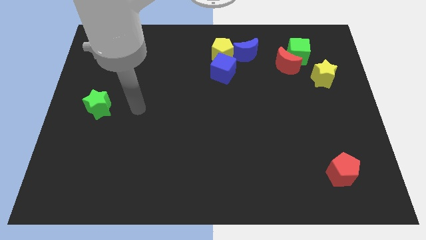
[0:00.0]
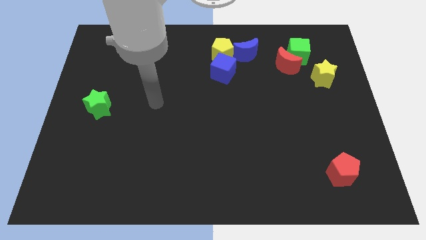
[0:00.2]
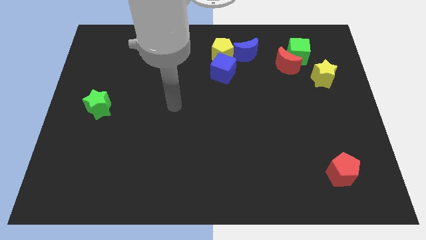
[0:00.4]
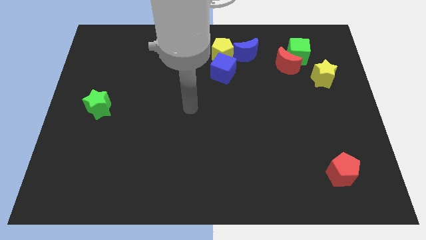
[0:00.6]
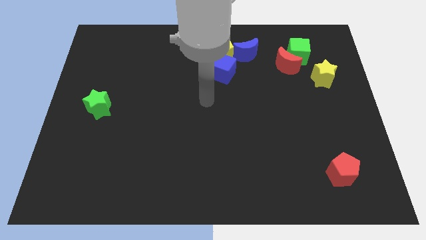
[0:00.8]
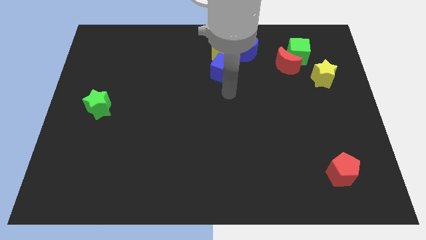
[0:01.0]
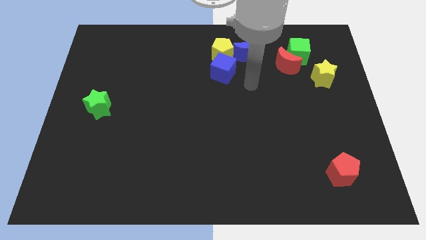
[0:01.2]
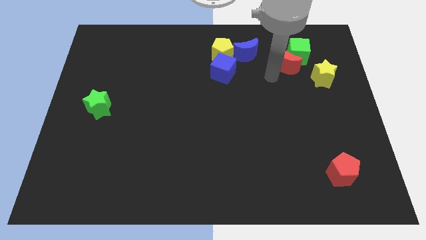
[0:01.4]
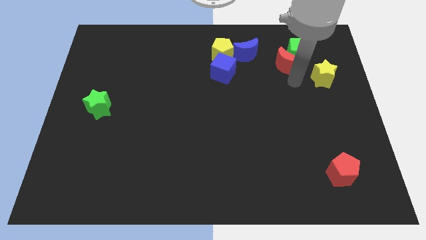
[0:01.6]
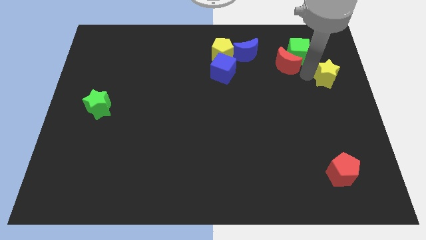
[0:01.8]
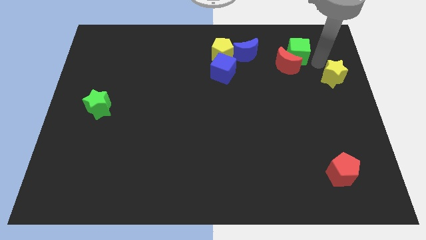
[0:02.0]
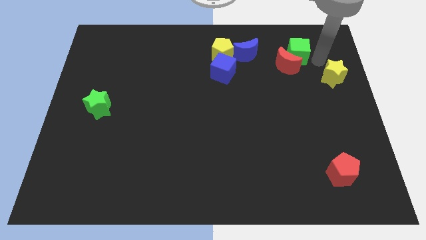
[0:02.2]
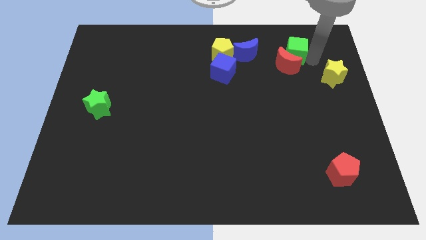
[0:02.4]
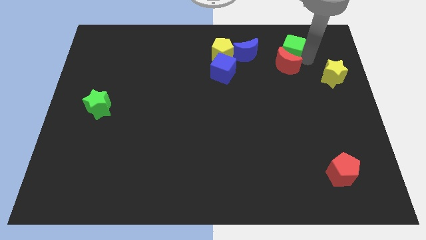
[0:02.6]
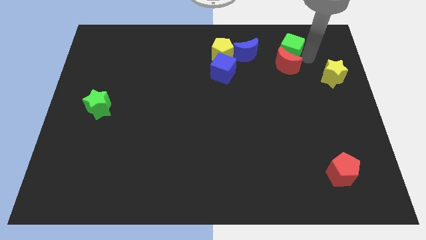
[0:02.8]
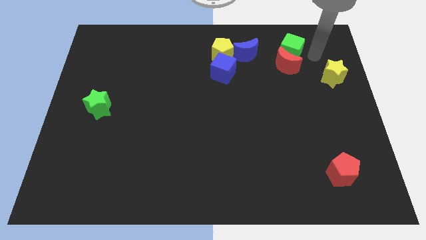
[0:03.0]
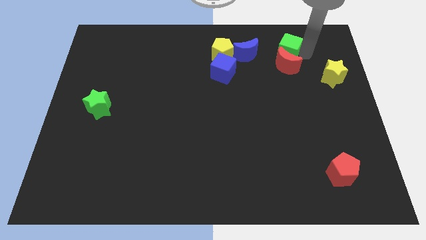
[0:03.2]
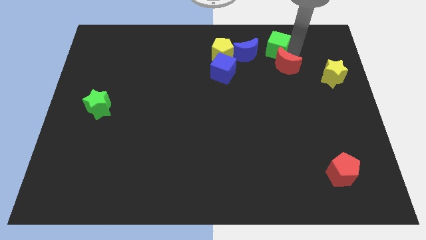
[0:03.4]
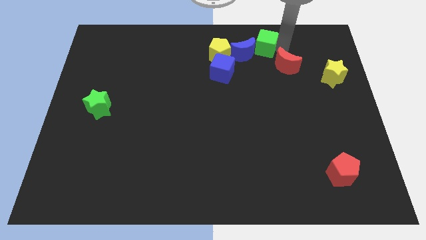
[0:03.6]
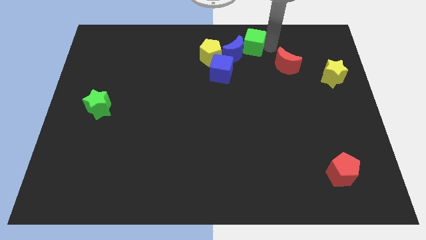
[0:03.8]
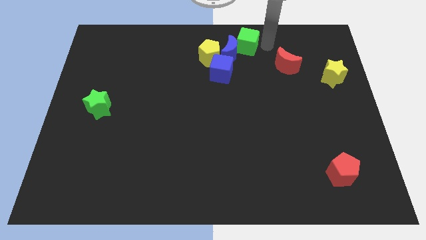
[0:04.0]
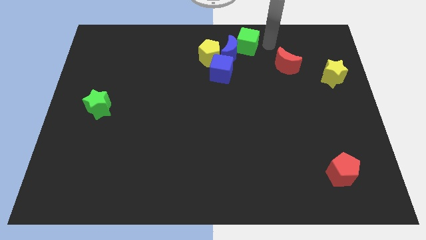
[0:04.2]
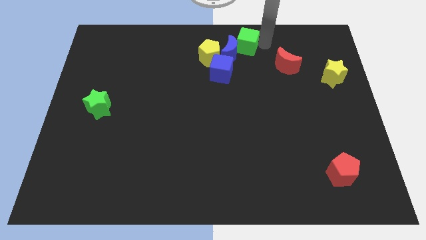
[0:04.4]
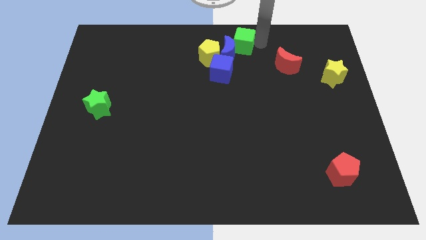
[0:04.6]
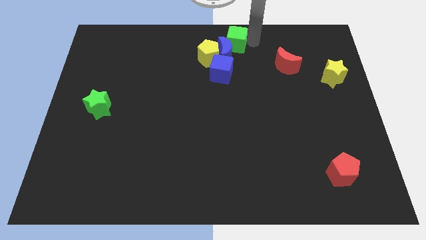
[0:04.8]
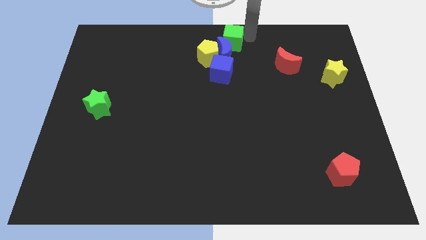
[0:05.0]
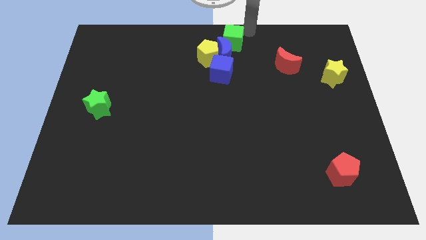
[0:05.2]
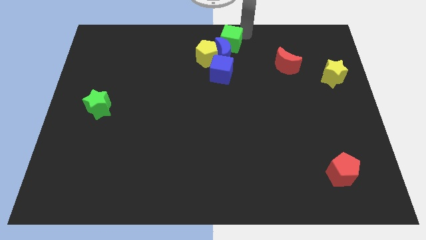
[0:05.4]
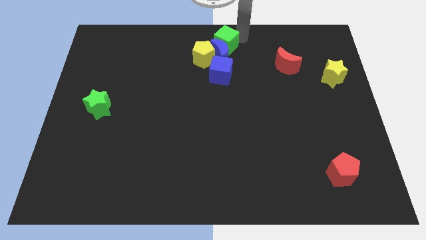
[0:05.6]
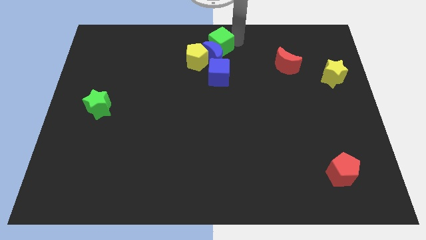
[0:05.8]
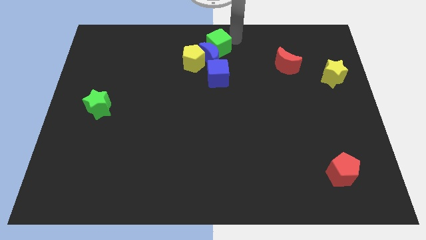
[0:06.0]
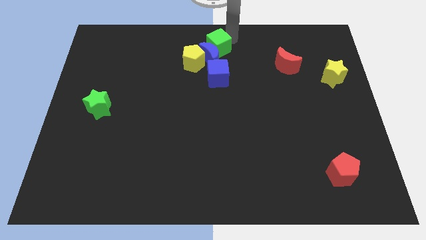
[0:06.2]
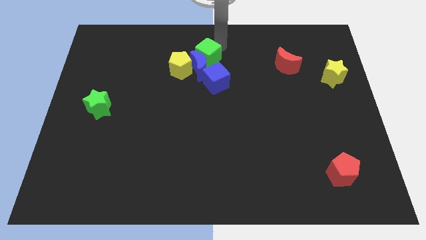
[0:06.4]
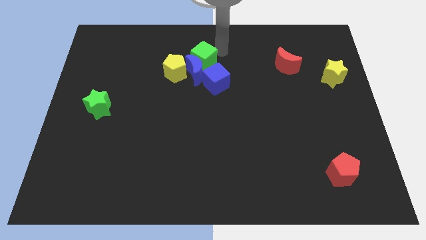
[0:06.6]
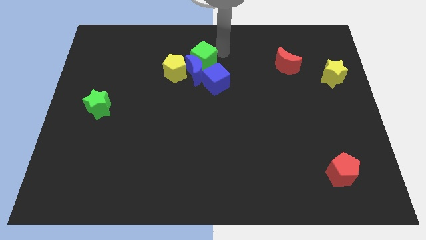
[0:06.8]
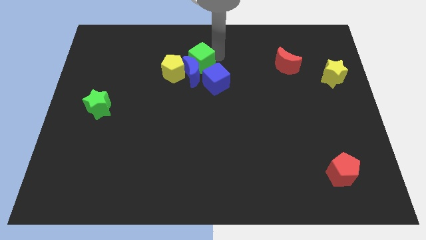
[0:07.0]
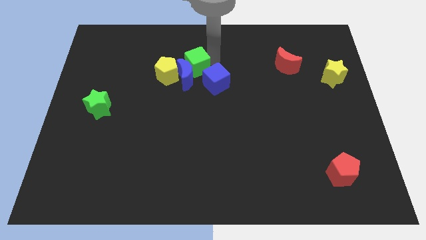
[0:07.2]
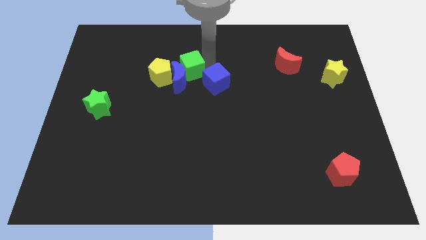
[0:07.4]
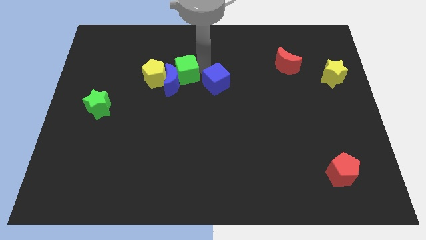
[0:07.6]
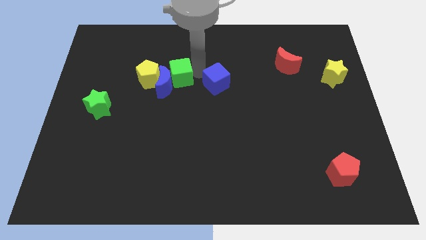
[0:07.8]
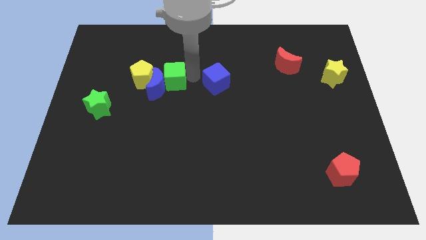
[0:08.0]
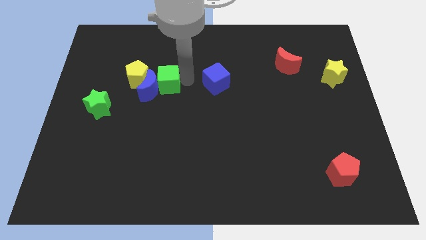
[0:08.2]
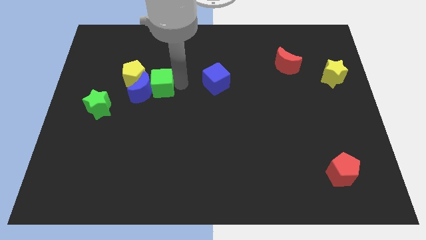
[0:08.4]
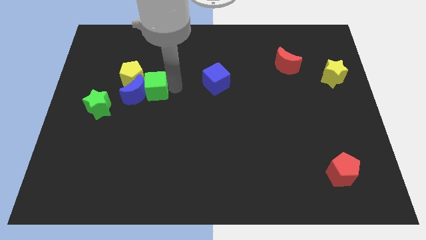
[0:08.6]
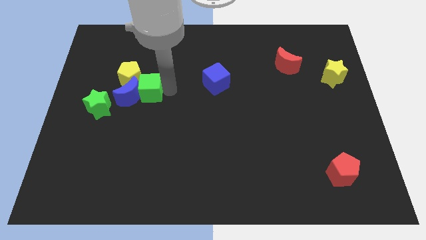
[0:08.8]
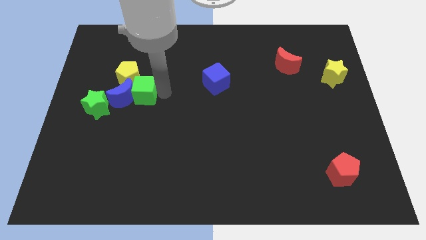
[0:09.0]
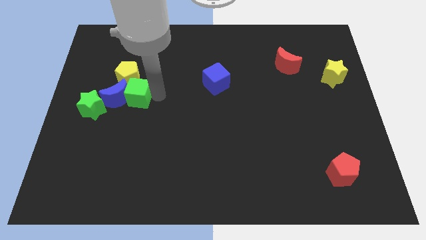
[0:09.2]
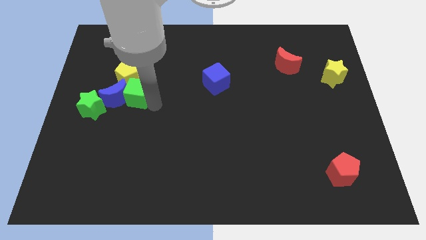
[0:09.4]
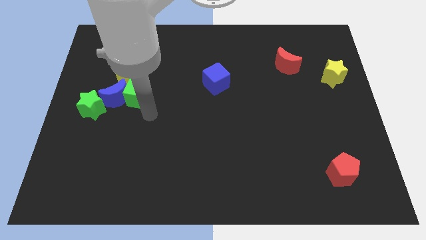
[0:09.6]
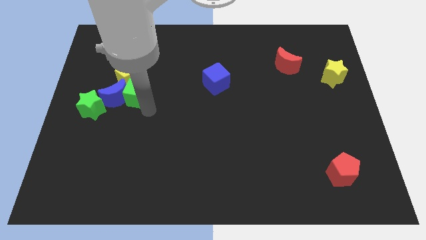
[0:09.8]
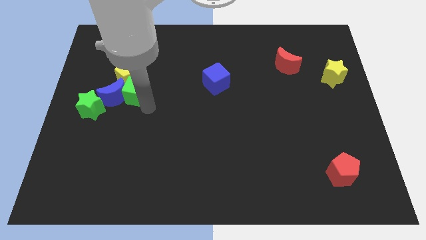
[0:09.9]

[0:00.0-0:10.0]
move the green cube close to the yellow pentagon

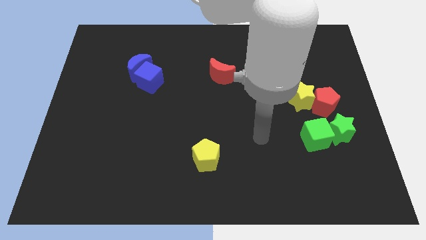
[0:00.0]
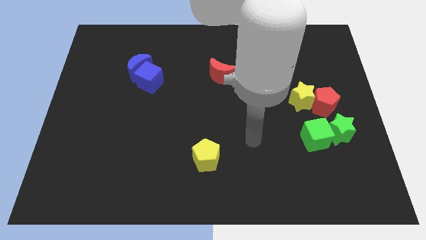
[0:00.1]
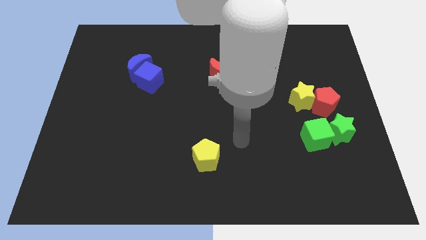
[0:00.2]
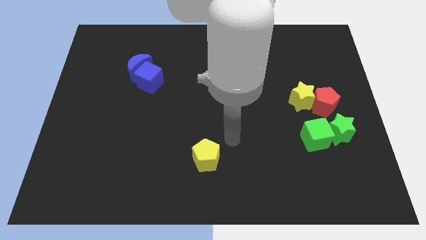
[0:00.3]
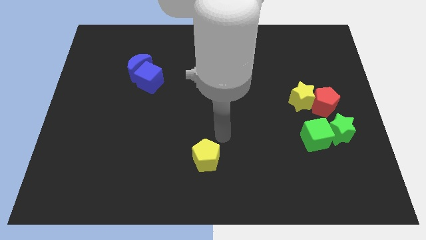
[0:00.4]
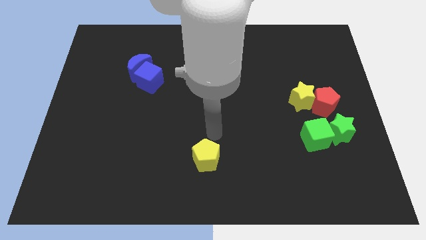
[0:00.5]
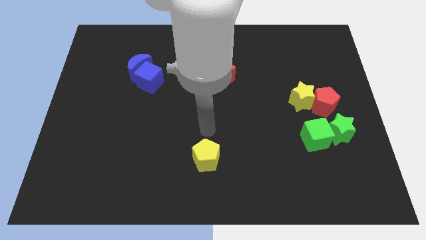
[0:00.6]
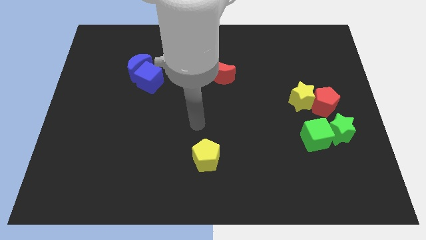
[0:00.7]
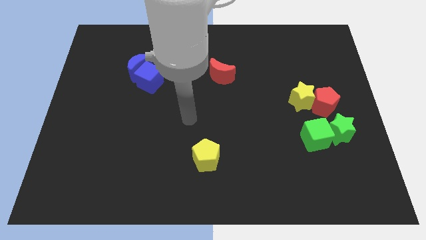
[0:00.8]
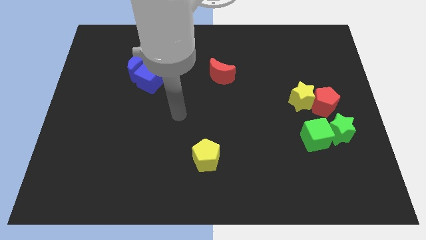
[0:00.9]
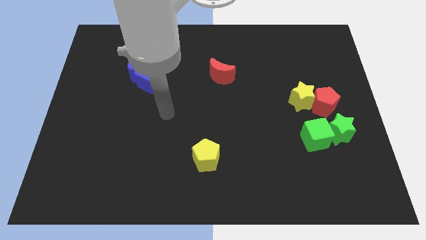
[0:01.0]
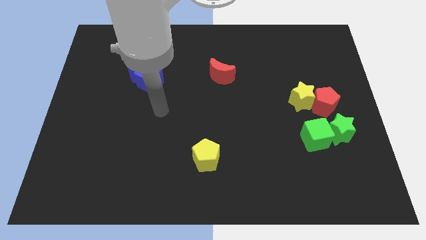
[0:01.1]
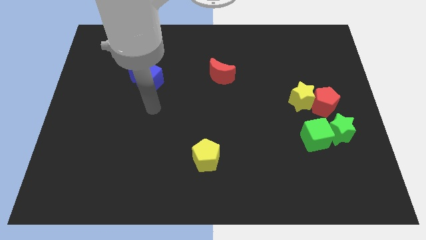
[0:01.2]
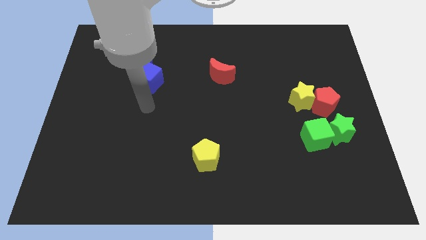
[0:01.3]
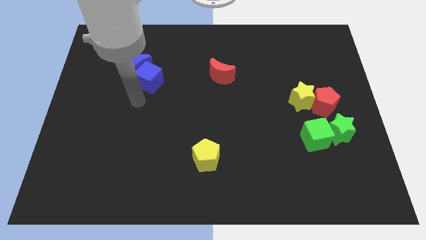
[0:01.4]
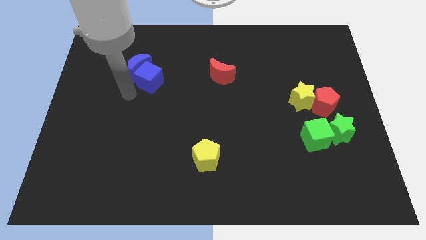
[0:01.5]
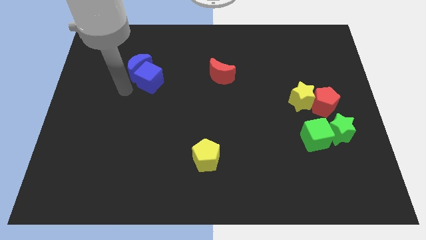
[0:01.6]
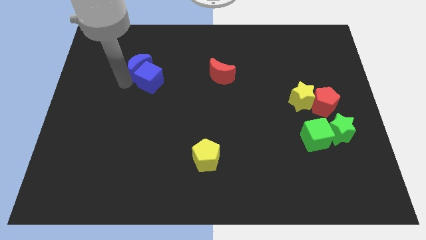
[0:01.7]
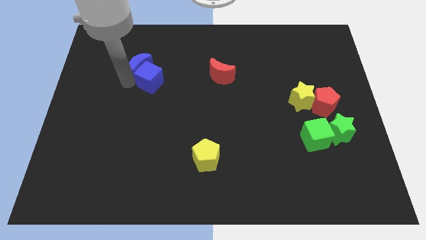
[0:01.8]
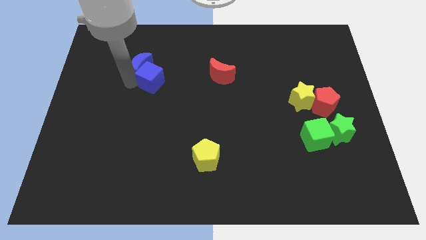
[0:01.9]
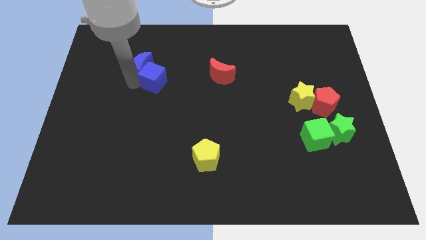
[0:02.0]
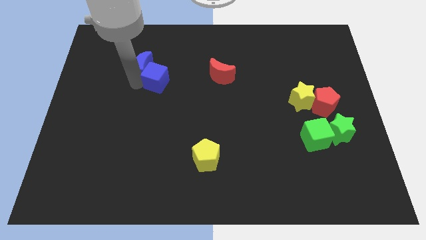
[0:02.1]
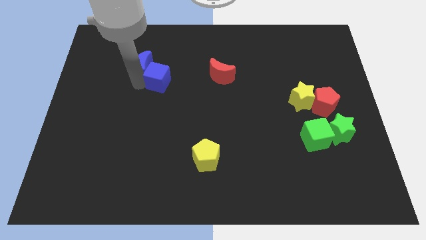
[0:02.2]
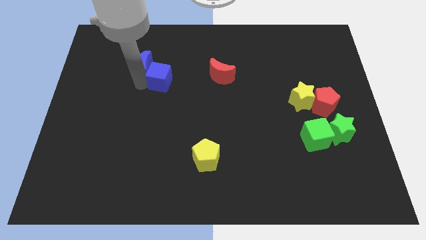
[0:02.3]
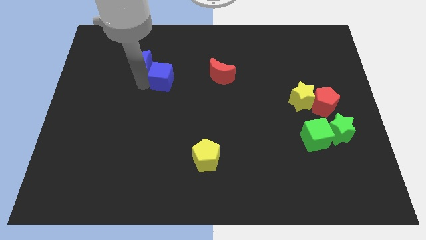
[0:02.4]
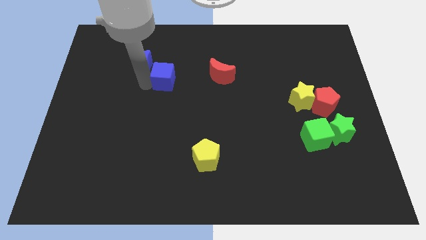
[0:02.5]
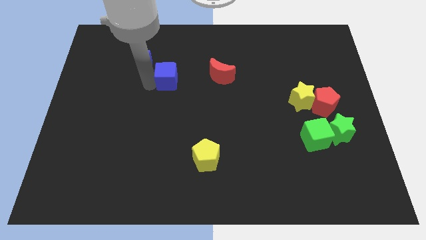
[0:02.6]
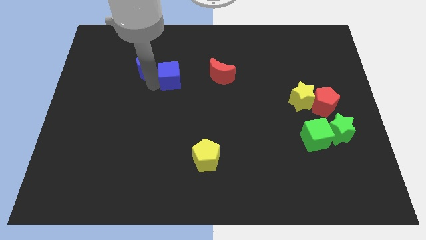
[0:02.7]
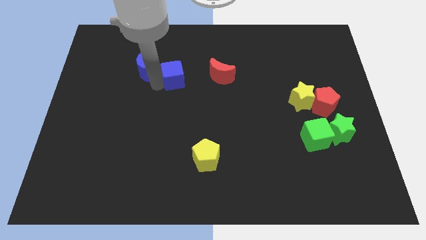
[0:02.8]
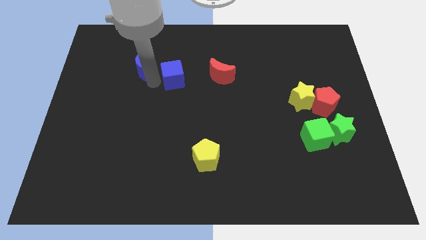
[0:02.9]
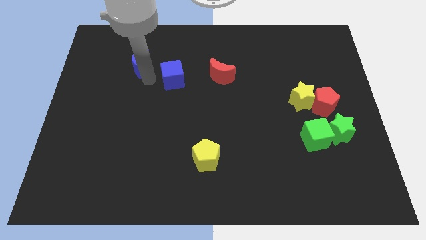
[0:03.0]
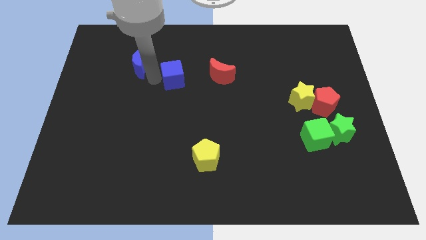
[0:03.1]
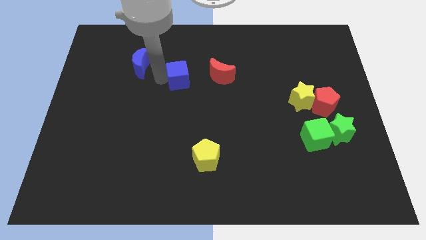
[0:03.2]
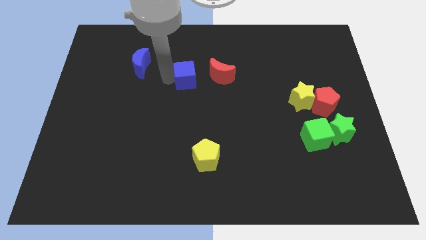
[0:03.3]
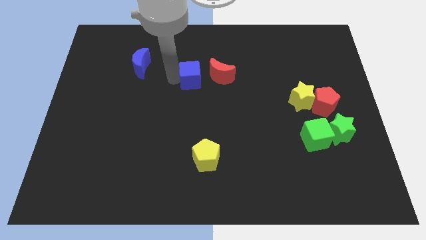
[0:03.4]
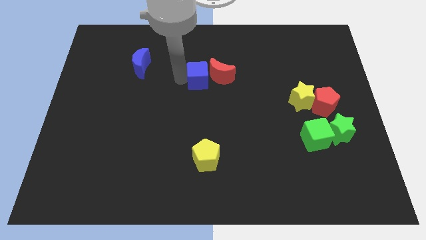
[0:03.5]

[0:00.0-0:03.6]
push the blue cube to the red moon
